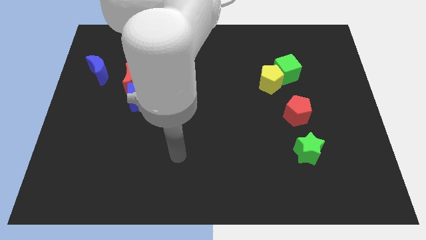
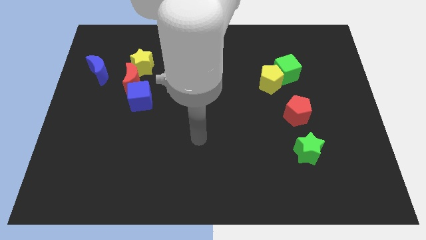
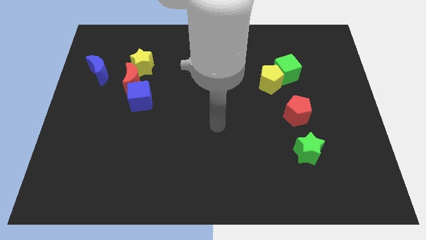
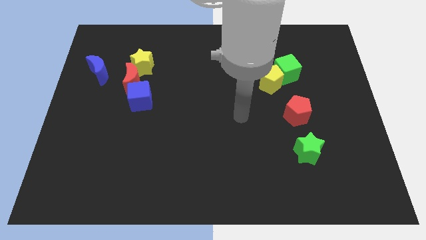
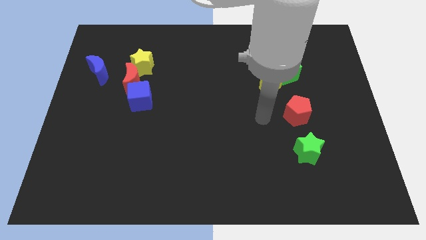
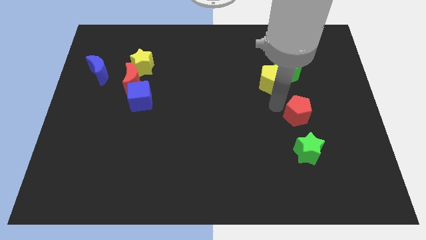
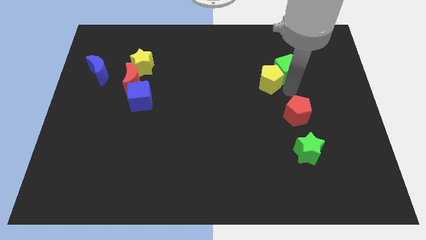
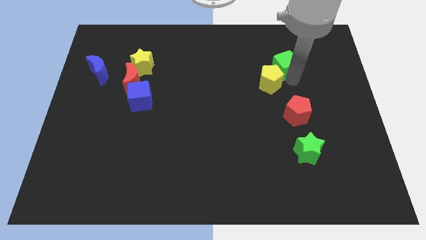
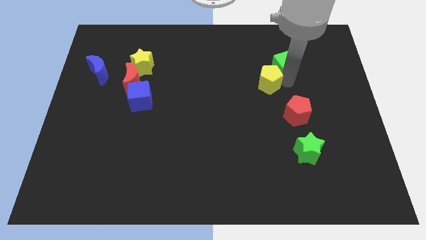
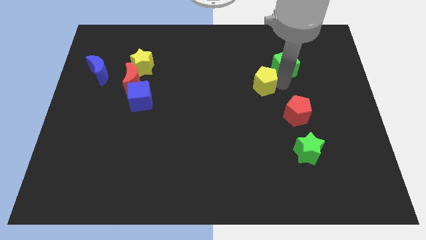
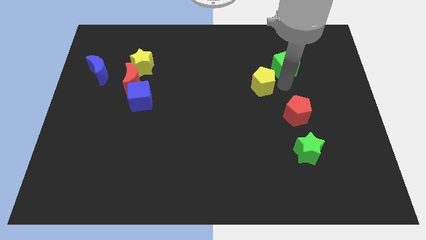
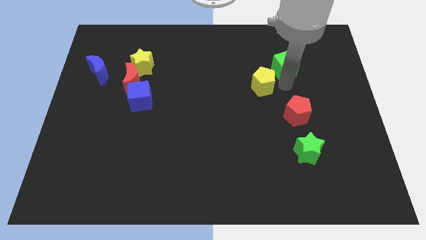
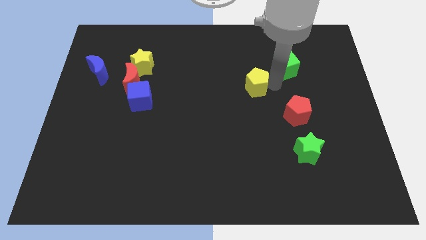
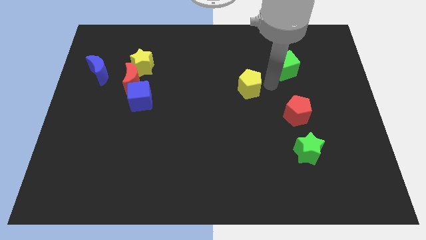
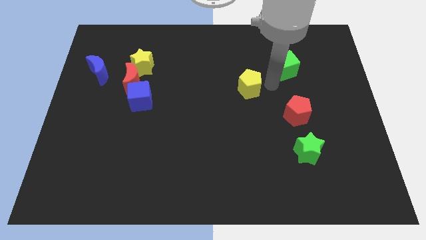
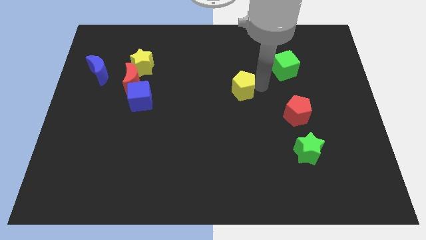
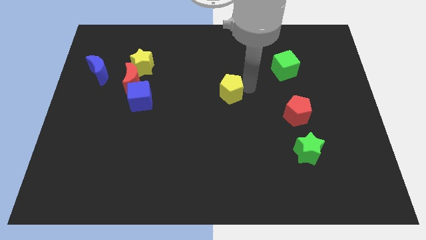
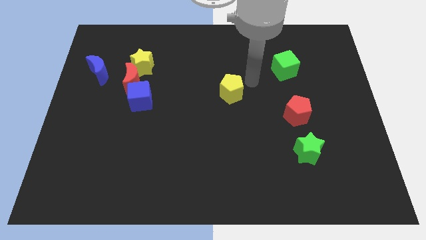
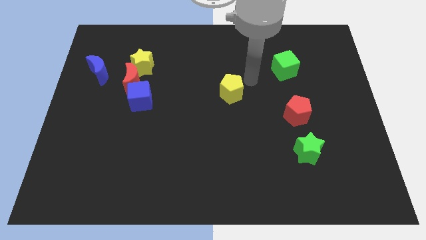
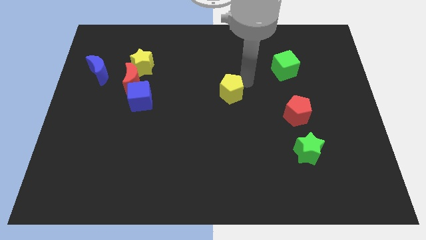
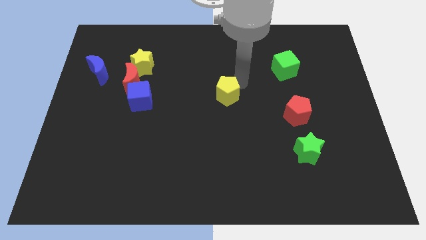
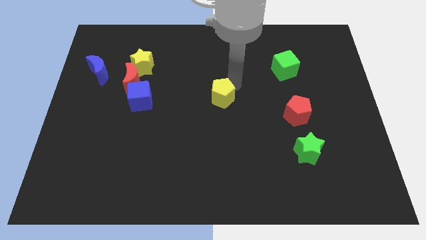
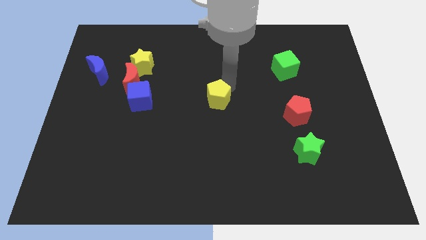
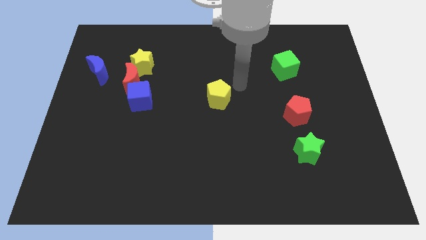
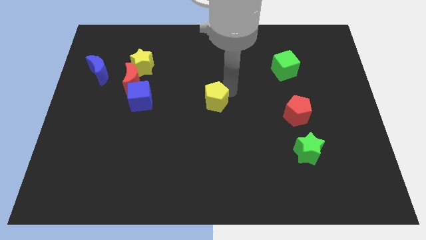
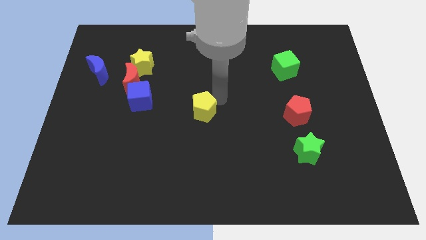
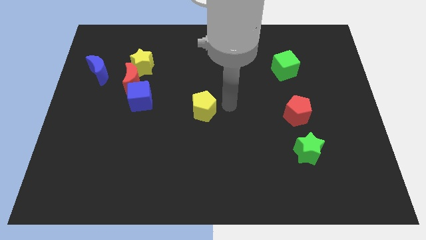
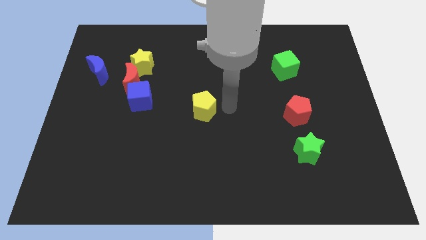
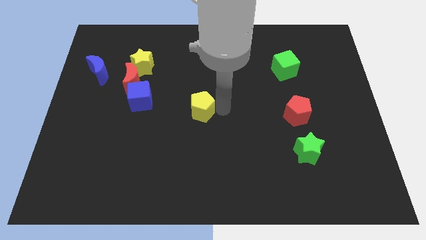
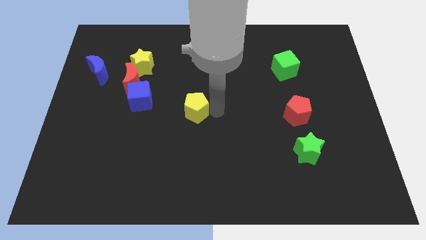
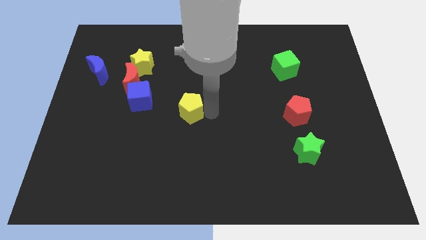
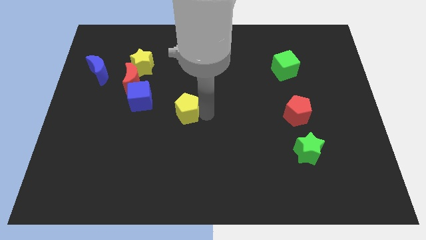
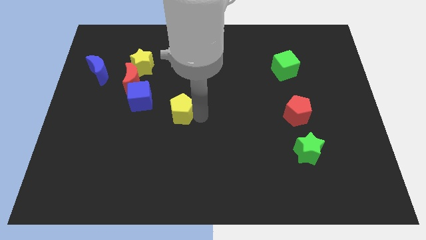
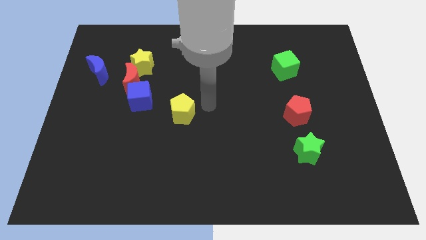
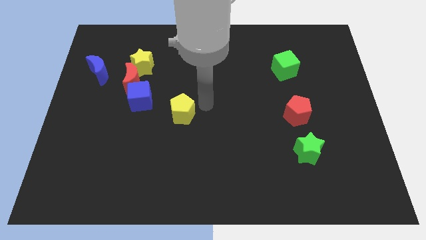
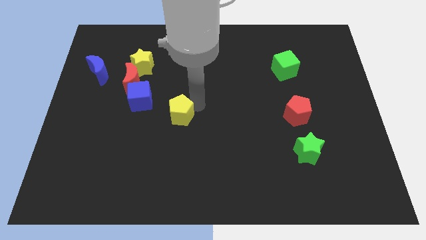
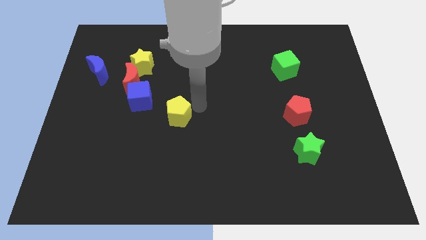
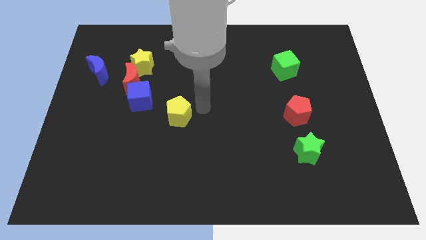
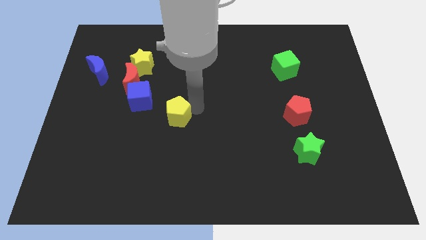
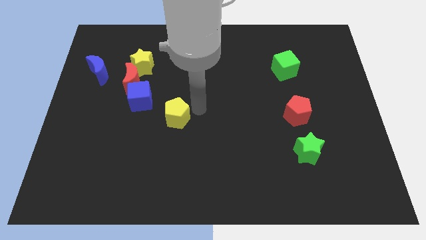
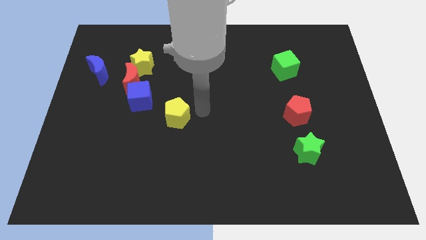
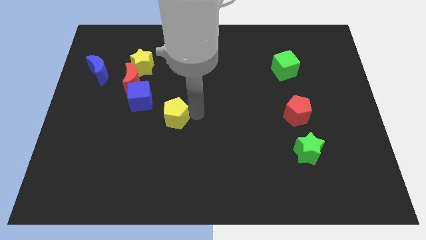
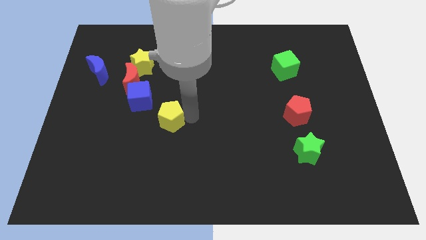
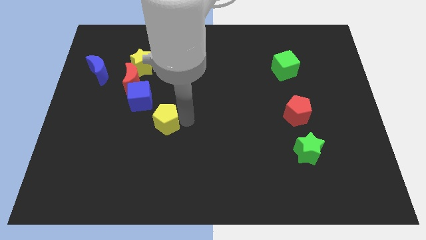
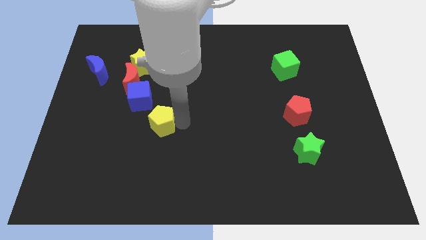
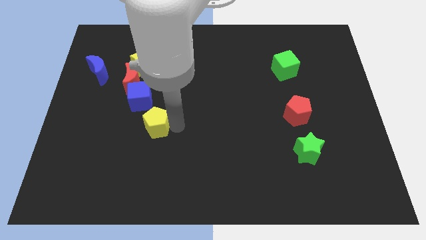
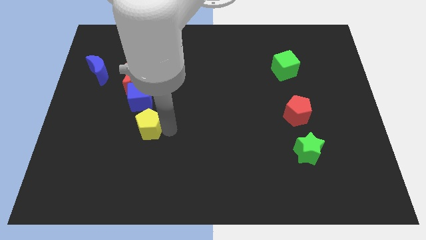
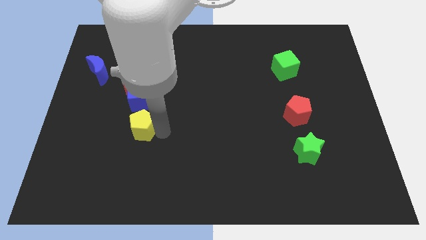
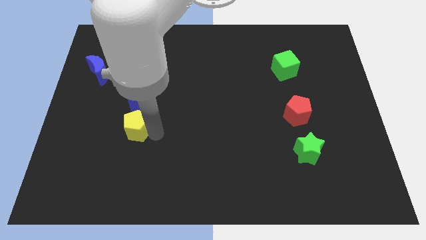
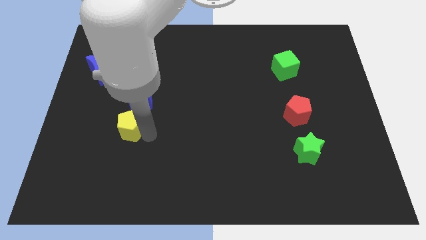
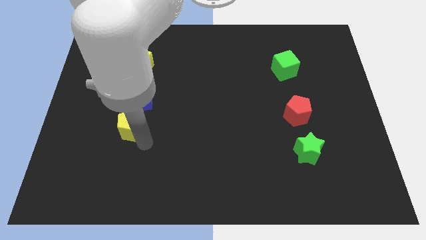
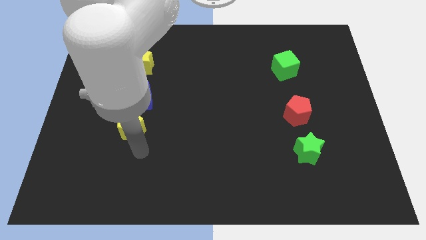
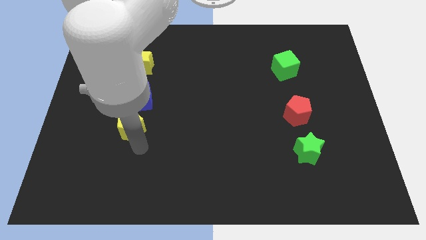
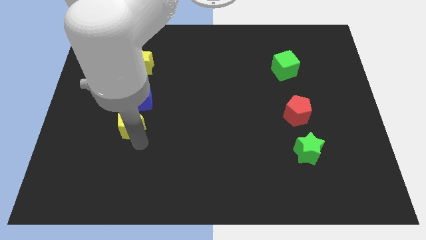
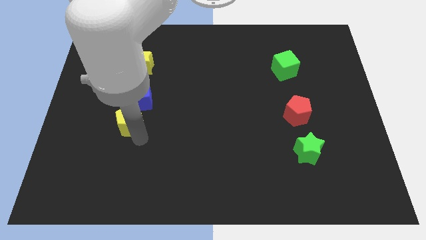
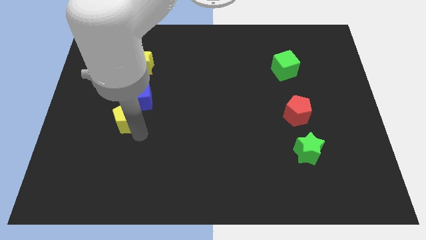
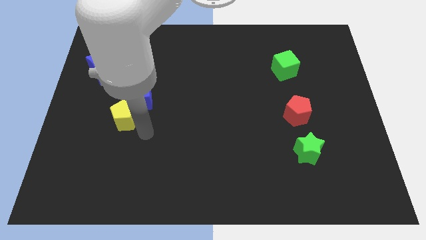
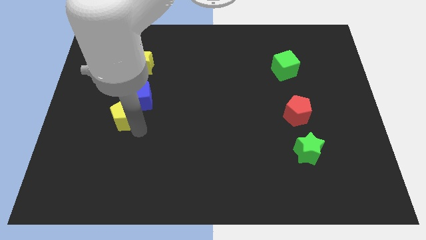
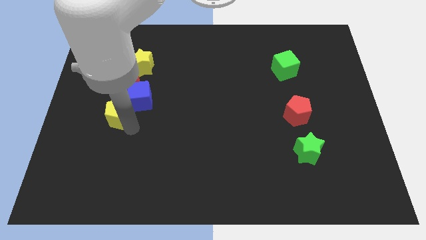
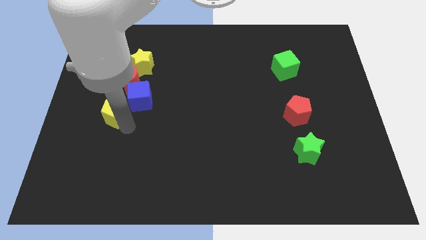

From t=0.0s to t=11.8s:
slide the yellow pentagon to the left side of the blue cube

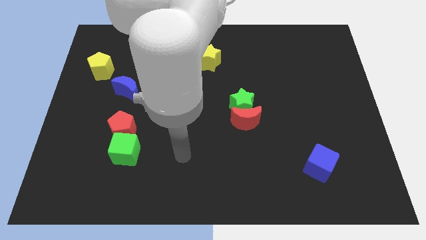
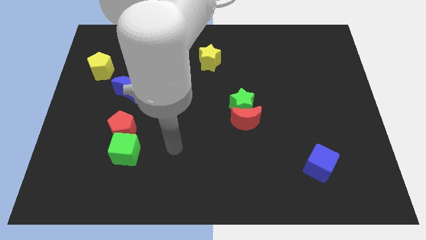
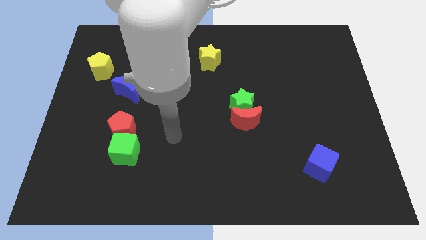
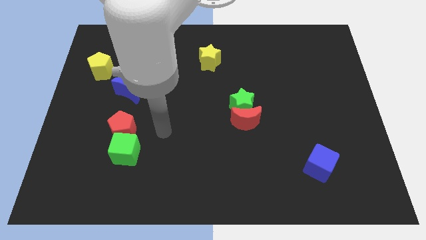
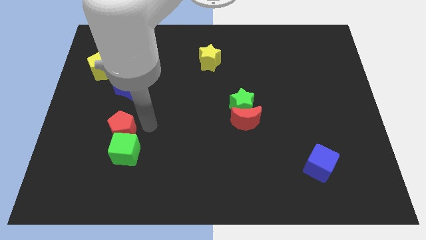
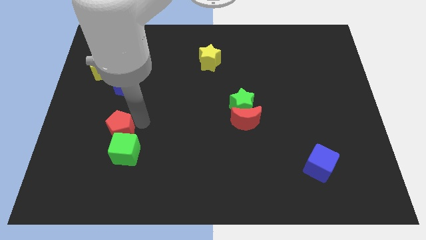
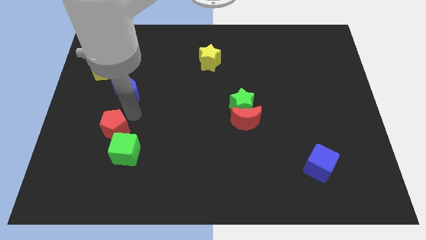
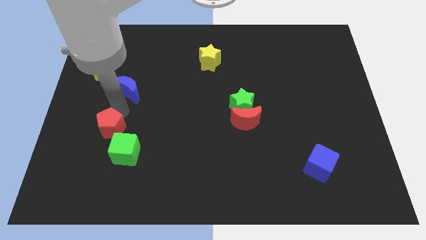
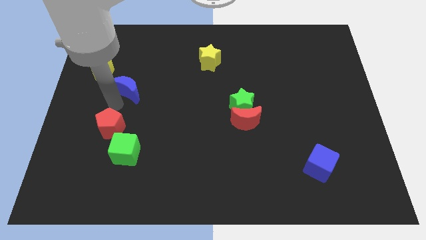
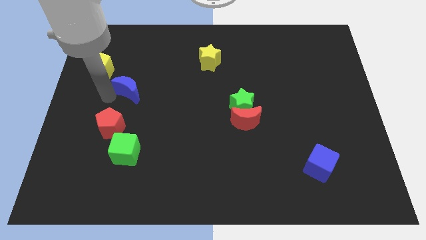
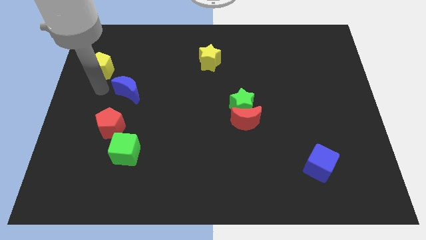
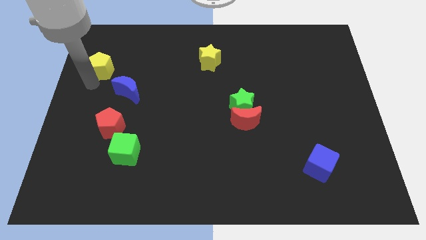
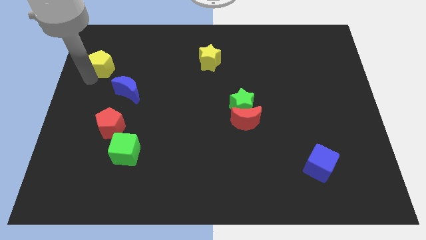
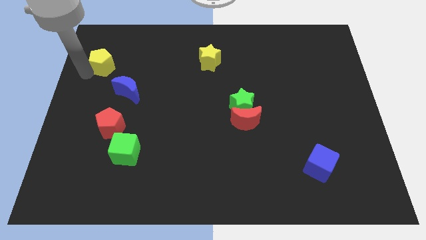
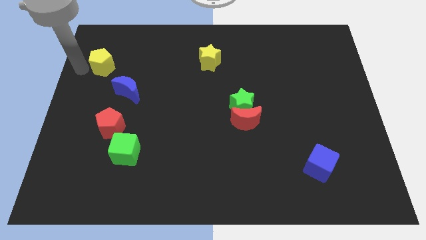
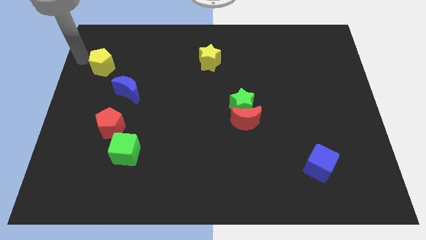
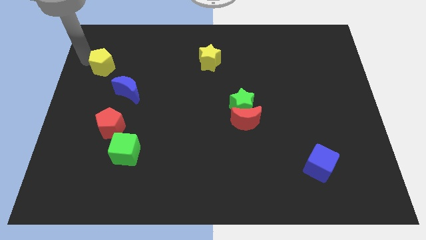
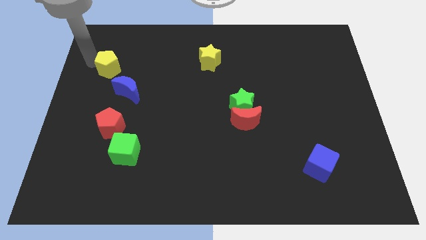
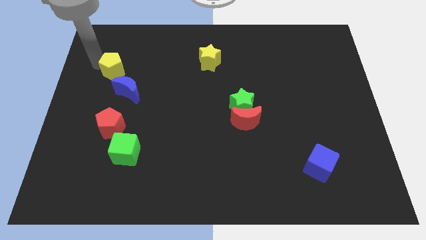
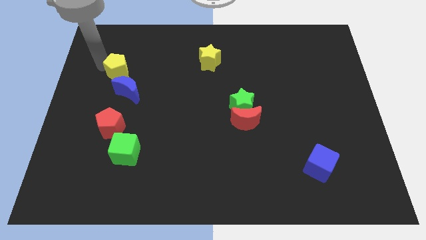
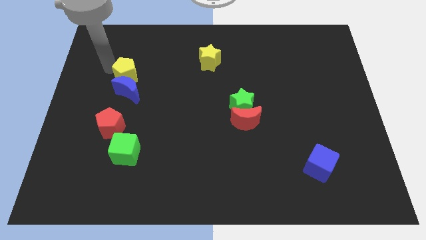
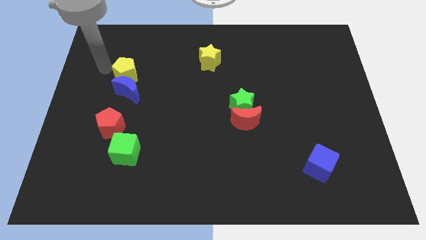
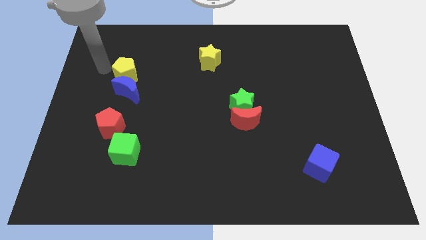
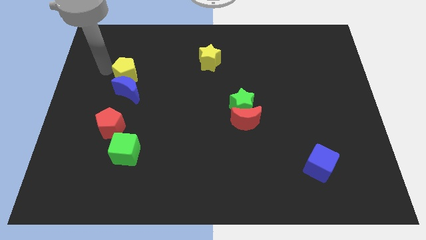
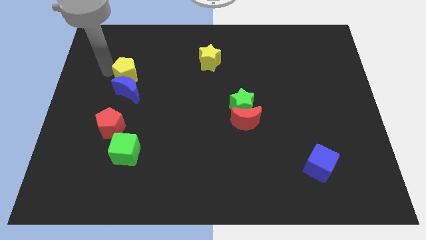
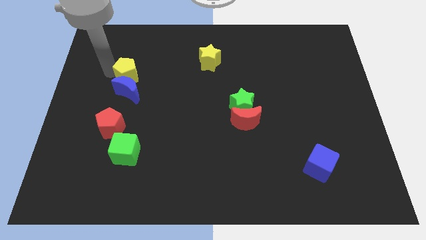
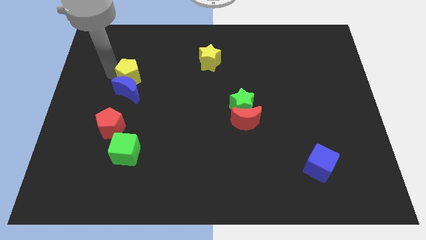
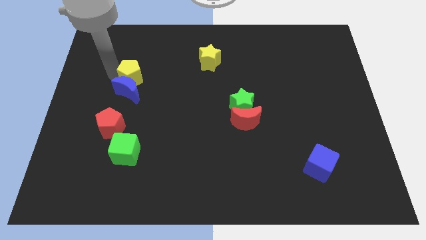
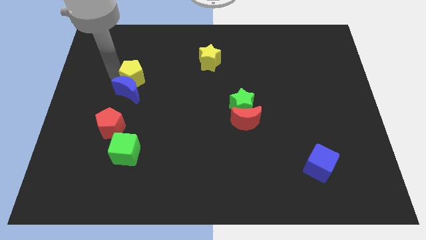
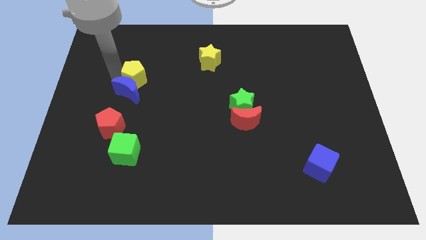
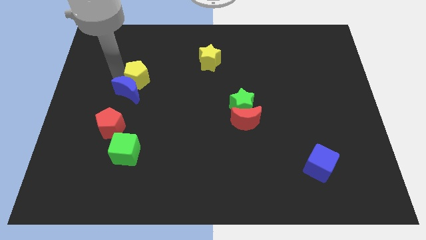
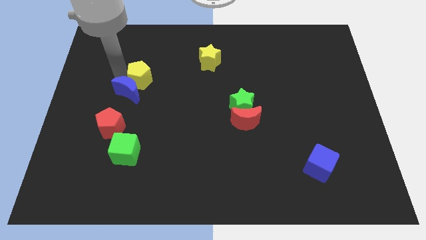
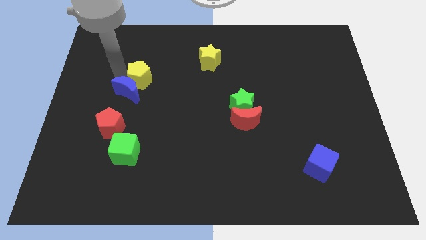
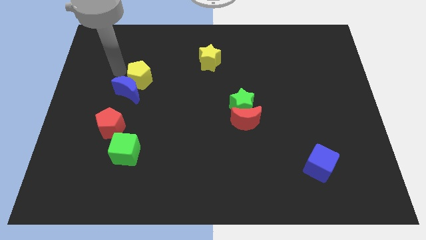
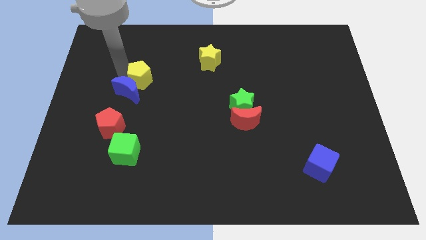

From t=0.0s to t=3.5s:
slide the yellow pentagon to the right side of the blue moon
